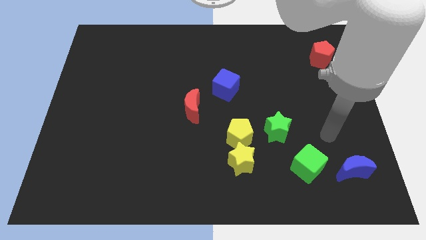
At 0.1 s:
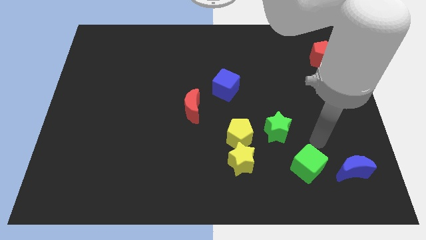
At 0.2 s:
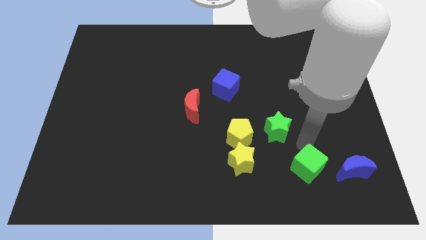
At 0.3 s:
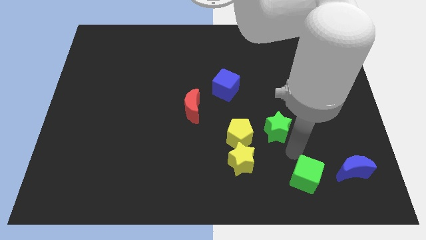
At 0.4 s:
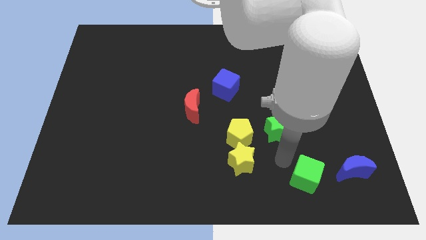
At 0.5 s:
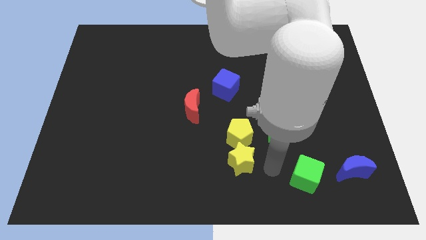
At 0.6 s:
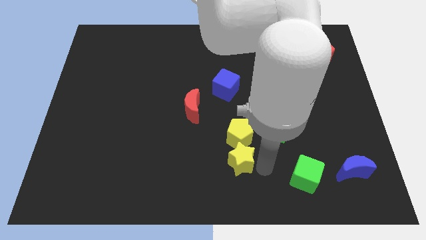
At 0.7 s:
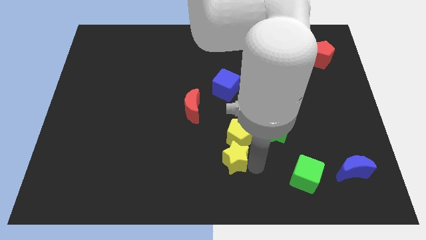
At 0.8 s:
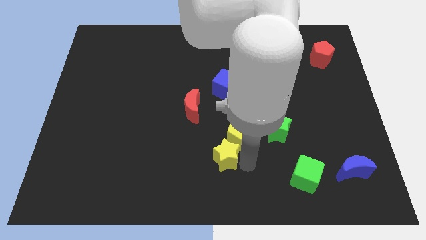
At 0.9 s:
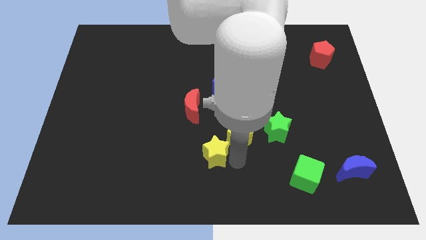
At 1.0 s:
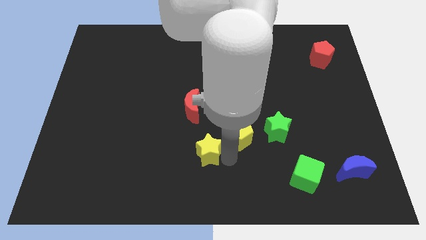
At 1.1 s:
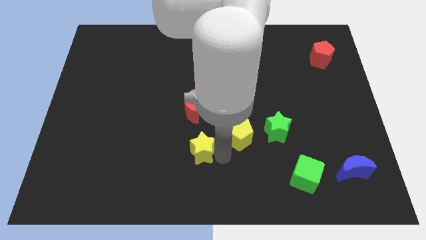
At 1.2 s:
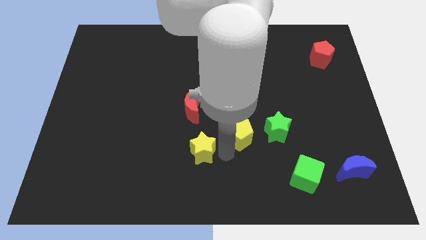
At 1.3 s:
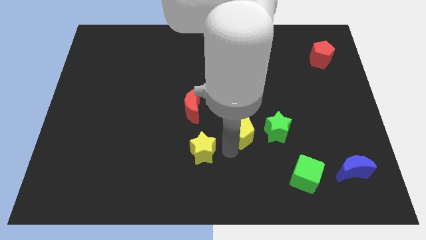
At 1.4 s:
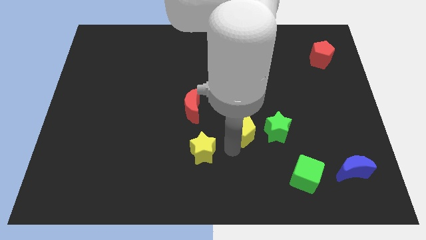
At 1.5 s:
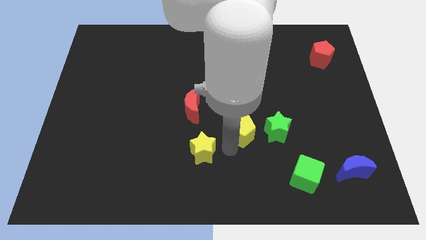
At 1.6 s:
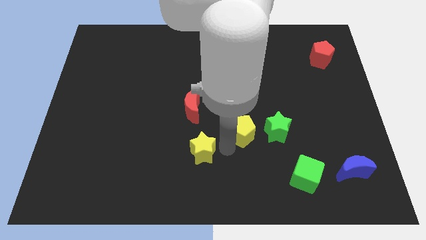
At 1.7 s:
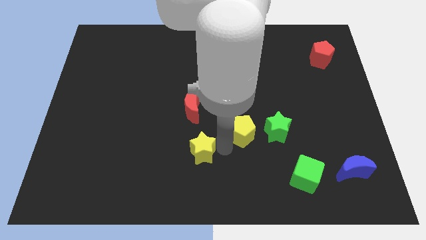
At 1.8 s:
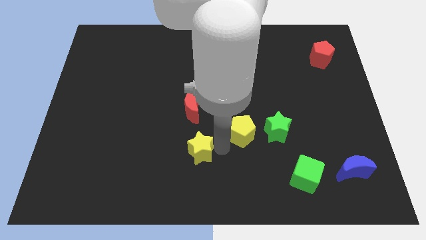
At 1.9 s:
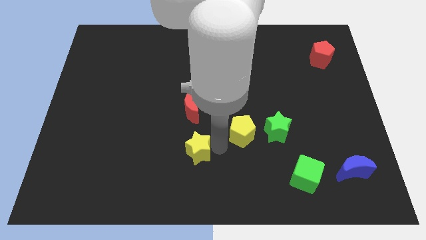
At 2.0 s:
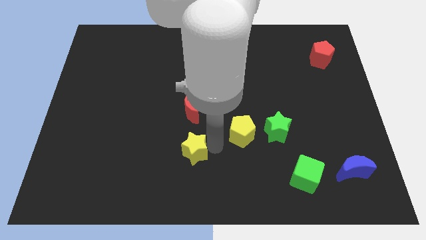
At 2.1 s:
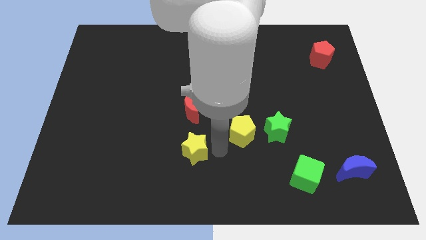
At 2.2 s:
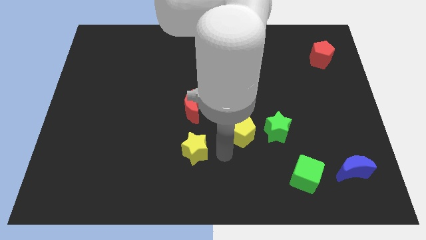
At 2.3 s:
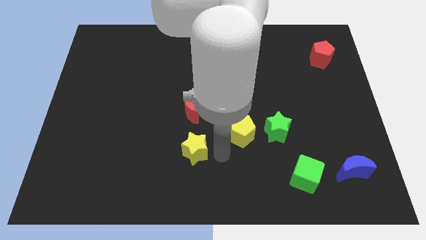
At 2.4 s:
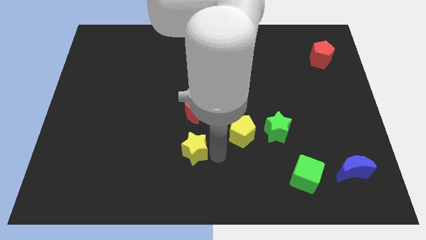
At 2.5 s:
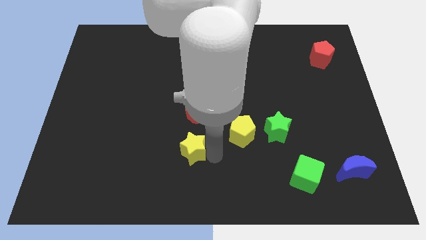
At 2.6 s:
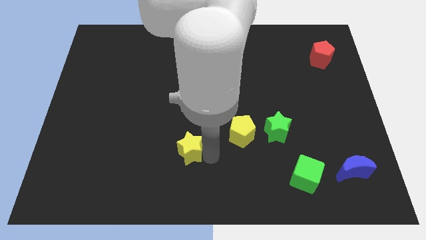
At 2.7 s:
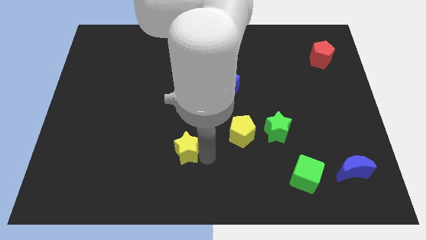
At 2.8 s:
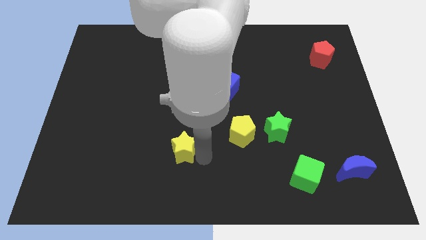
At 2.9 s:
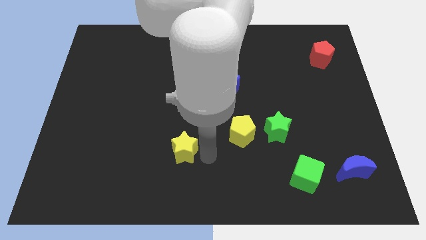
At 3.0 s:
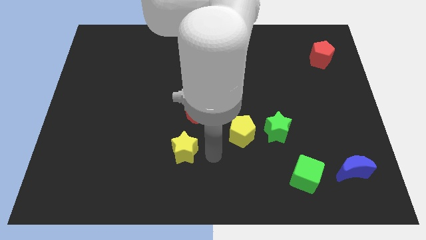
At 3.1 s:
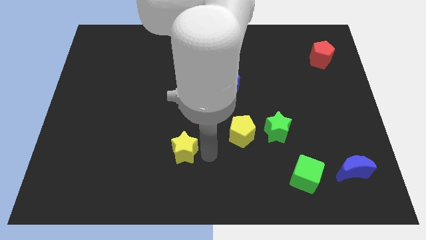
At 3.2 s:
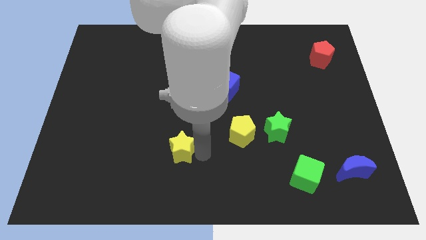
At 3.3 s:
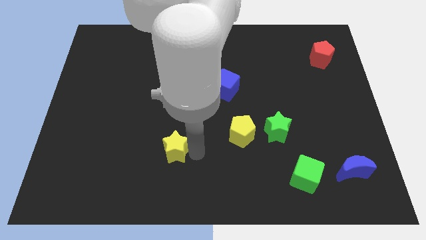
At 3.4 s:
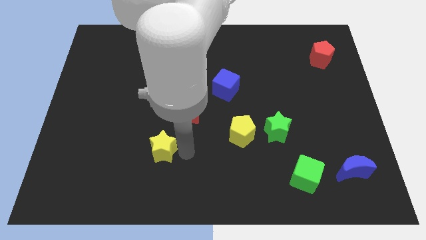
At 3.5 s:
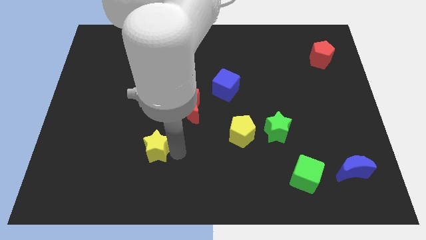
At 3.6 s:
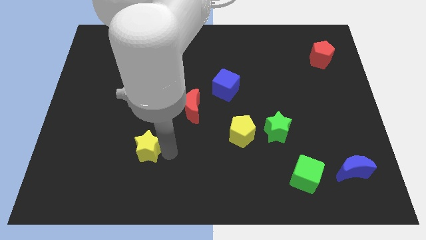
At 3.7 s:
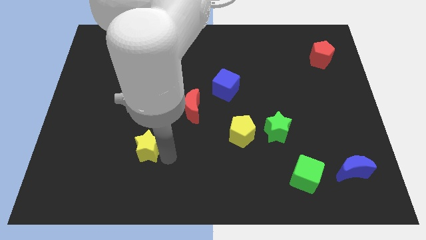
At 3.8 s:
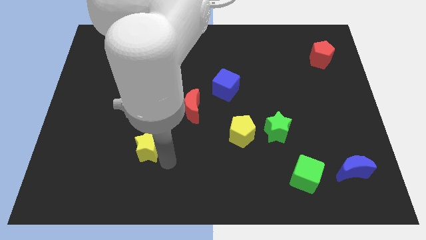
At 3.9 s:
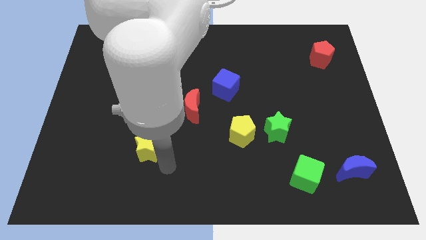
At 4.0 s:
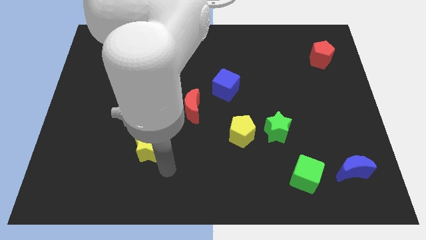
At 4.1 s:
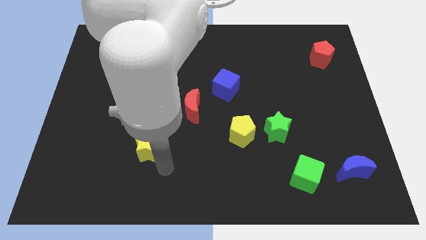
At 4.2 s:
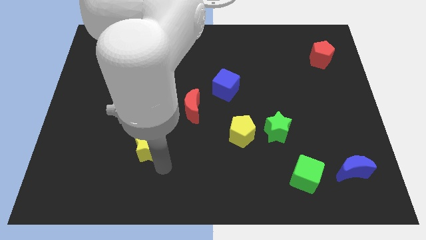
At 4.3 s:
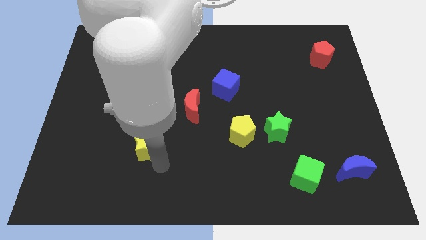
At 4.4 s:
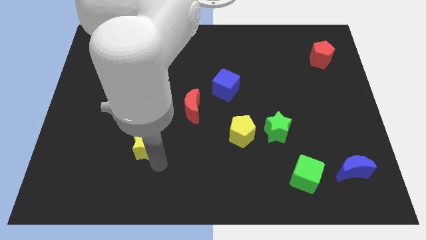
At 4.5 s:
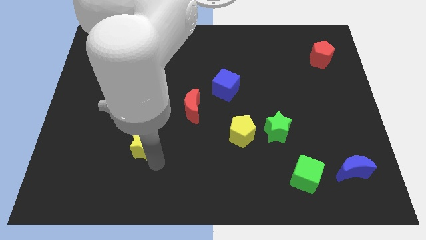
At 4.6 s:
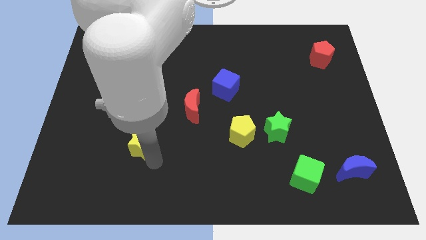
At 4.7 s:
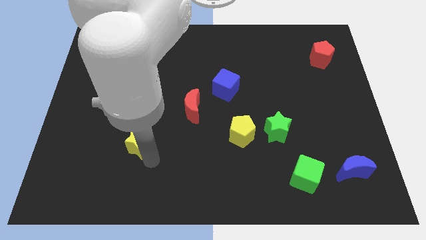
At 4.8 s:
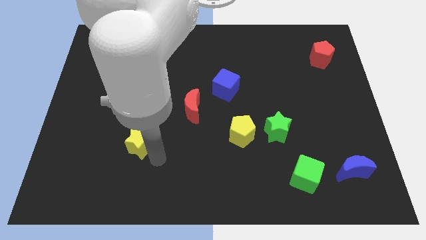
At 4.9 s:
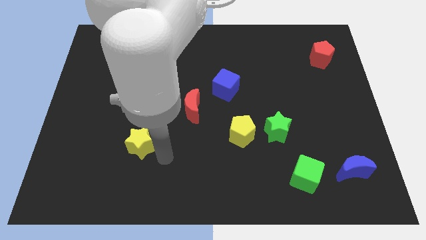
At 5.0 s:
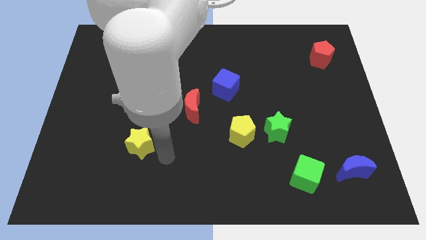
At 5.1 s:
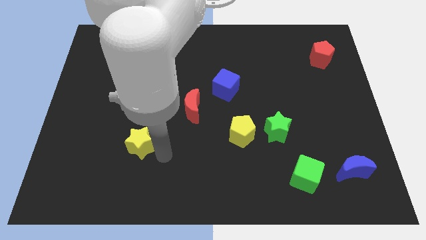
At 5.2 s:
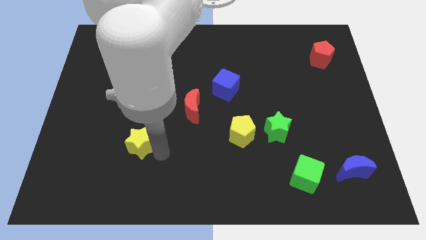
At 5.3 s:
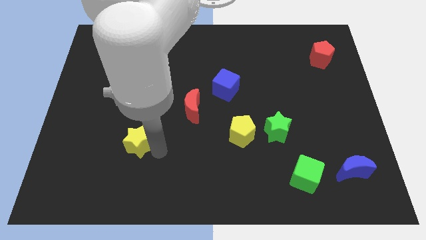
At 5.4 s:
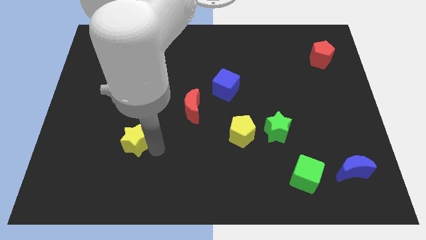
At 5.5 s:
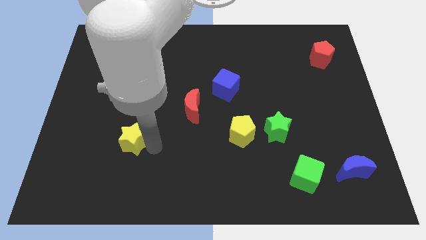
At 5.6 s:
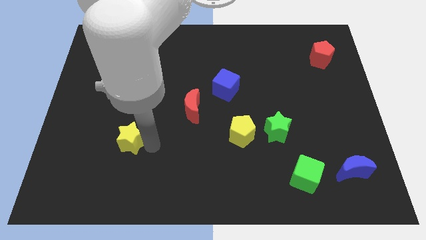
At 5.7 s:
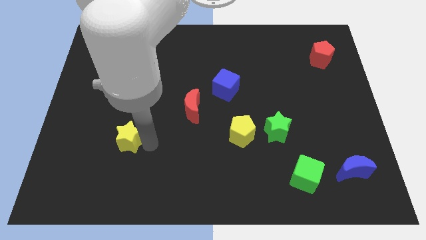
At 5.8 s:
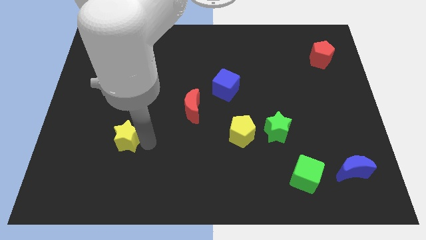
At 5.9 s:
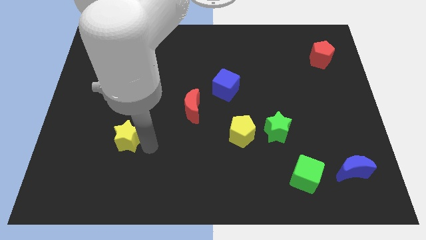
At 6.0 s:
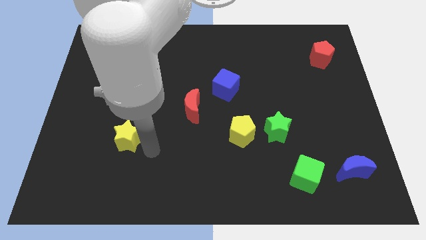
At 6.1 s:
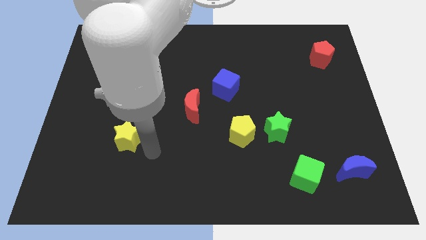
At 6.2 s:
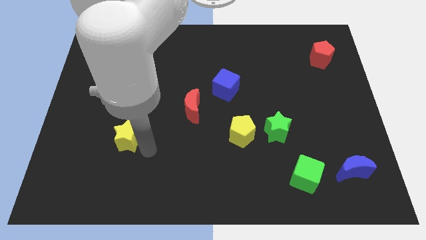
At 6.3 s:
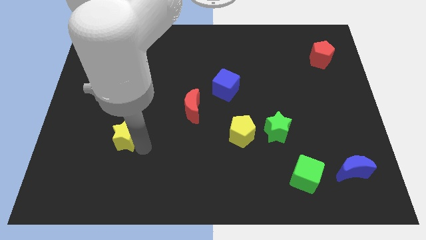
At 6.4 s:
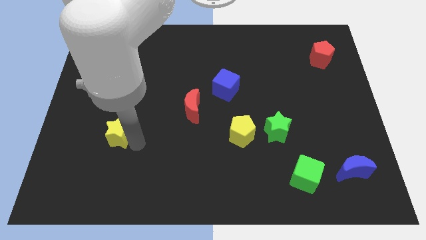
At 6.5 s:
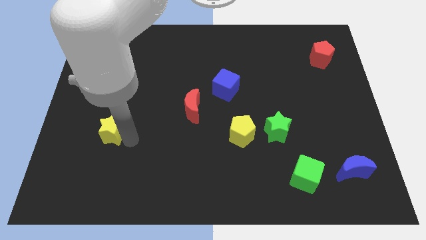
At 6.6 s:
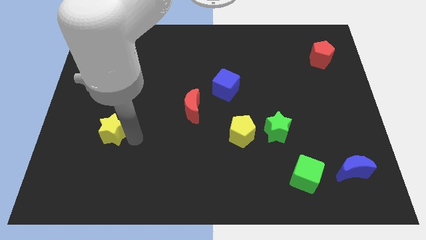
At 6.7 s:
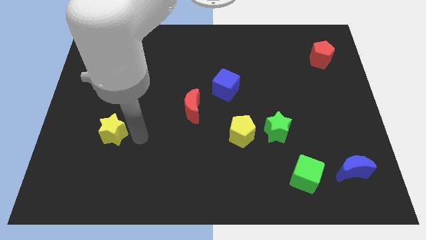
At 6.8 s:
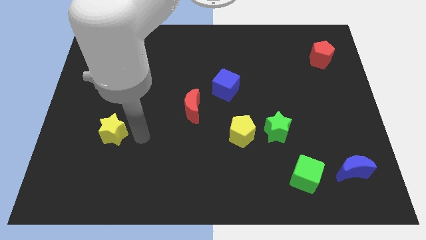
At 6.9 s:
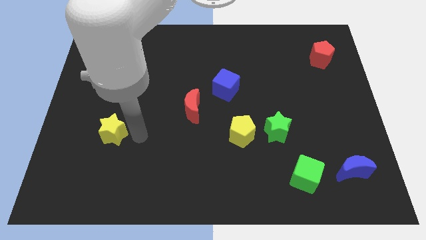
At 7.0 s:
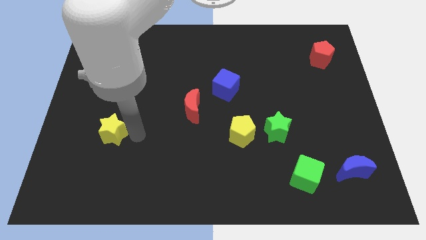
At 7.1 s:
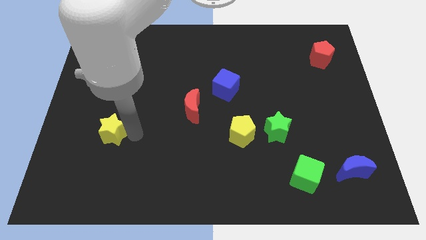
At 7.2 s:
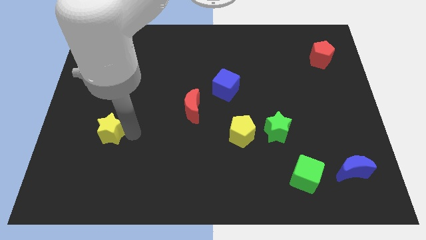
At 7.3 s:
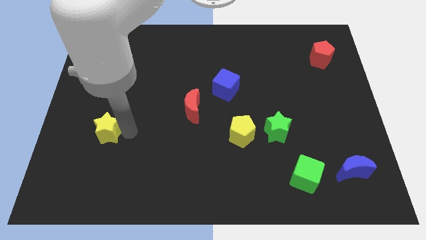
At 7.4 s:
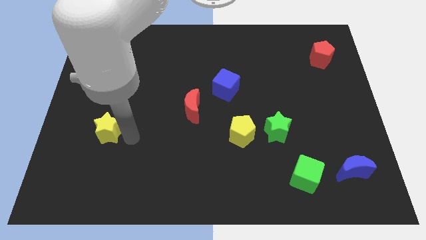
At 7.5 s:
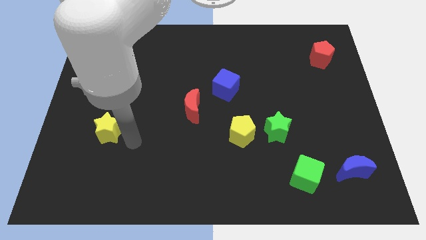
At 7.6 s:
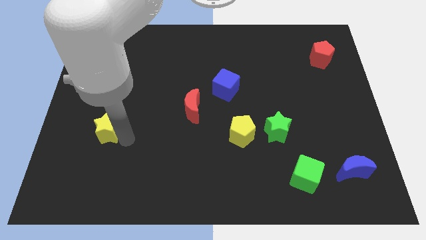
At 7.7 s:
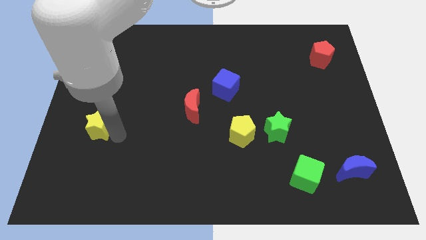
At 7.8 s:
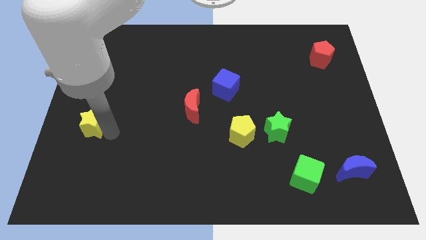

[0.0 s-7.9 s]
push the yellow star to the left side
